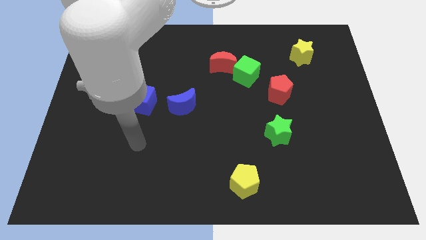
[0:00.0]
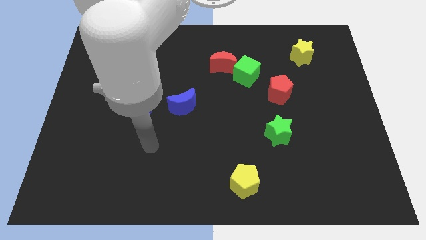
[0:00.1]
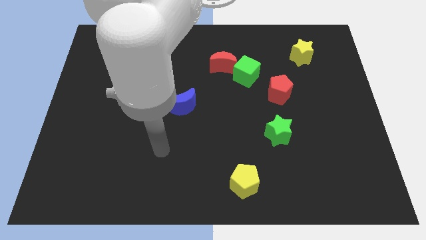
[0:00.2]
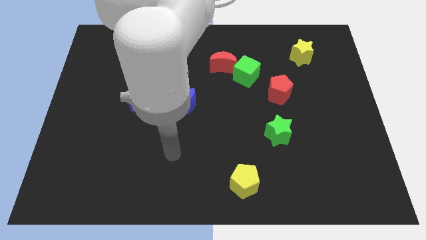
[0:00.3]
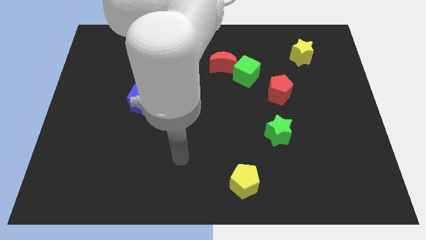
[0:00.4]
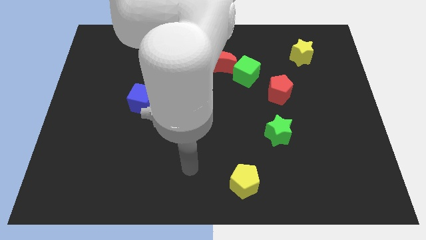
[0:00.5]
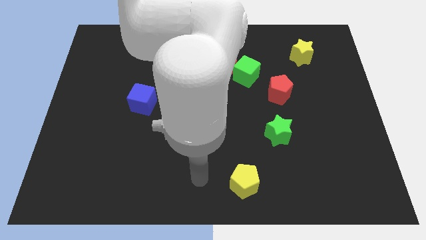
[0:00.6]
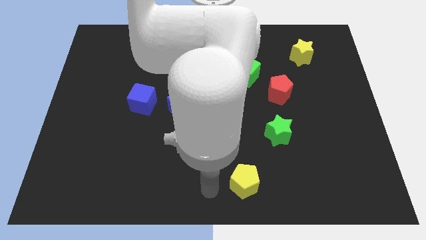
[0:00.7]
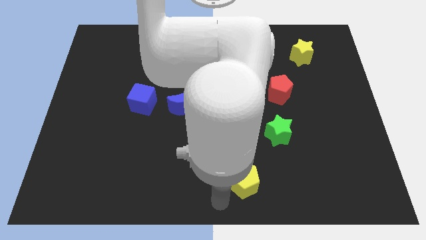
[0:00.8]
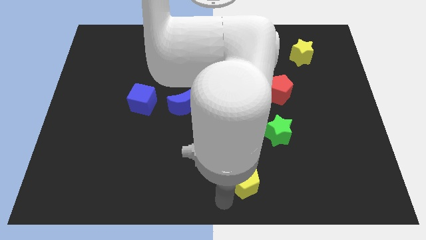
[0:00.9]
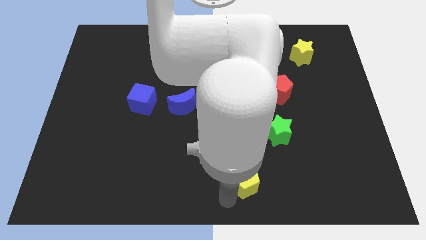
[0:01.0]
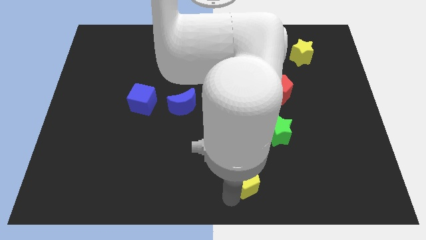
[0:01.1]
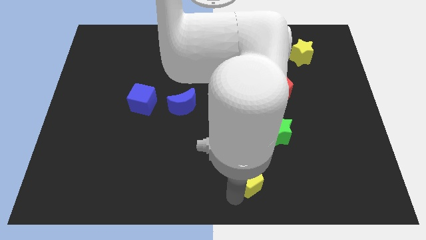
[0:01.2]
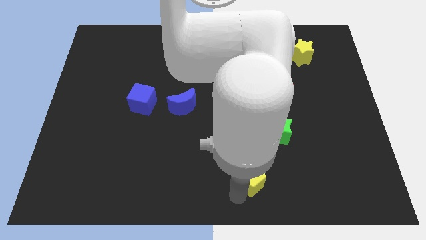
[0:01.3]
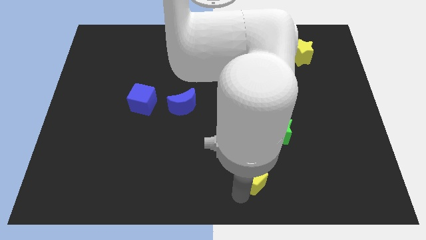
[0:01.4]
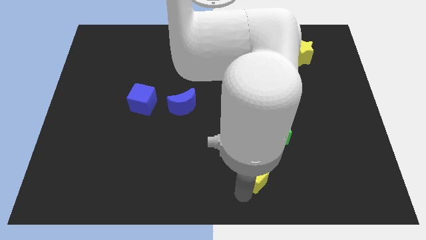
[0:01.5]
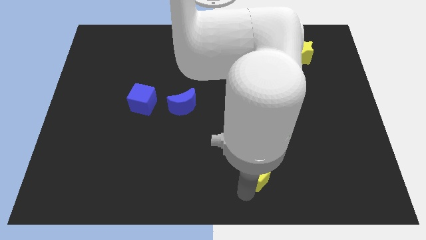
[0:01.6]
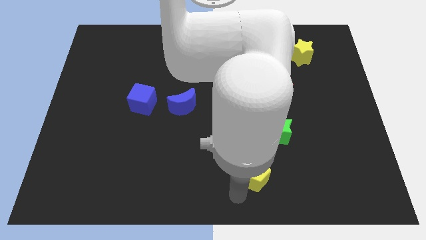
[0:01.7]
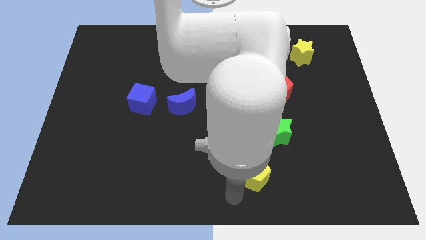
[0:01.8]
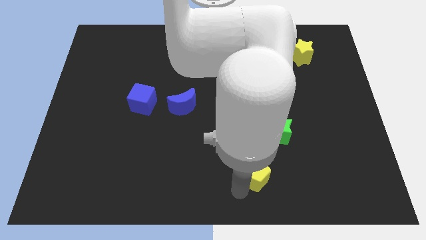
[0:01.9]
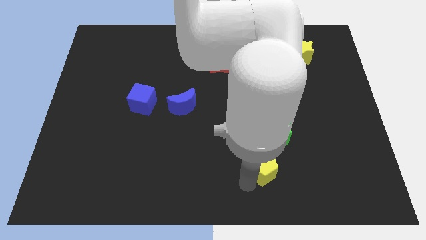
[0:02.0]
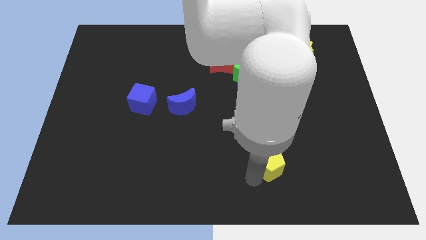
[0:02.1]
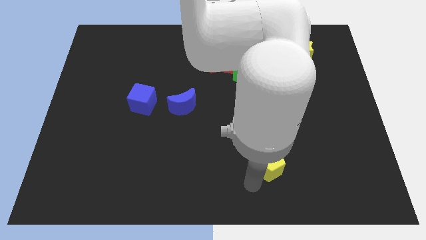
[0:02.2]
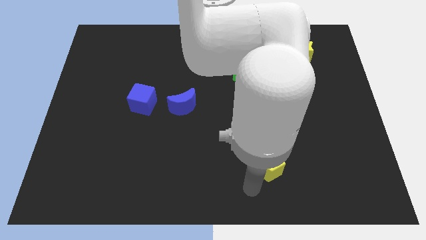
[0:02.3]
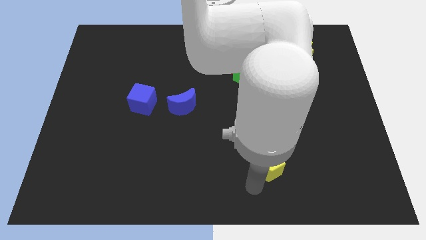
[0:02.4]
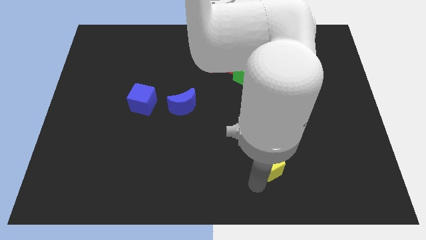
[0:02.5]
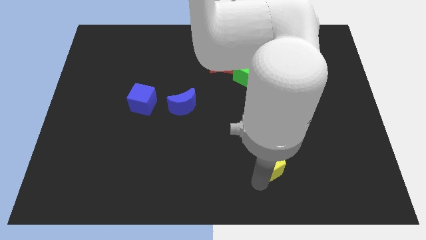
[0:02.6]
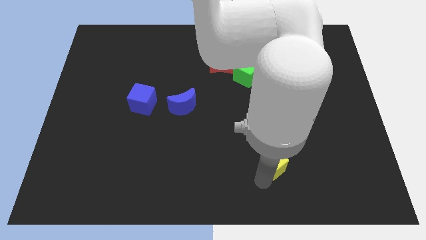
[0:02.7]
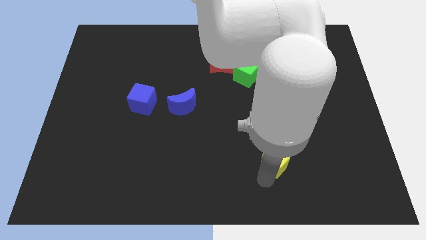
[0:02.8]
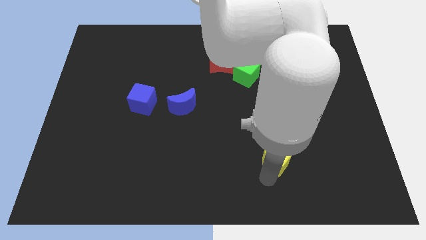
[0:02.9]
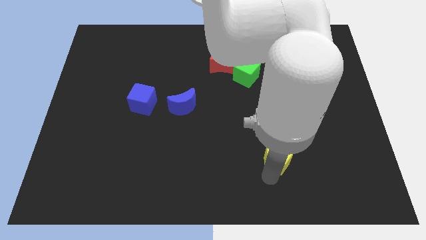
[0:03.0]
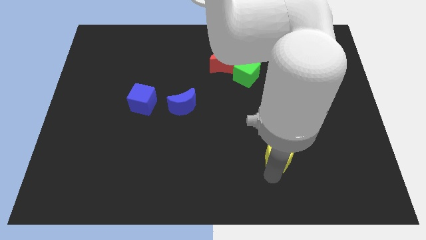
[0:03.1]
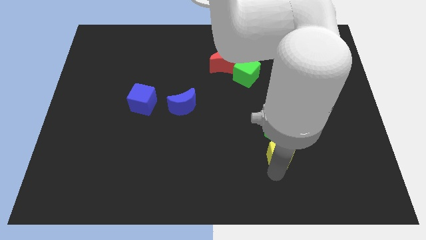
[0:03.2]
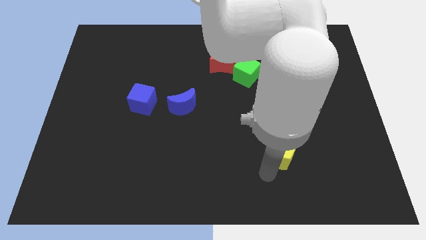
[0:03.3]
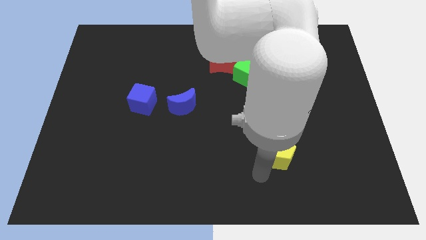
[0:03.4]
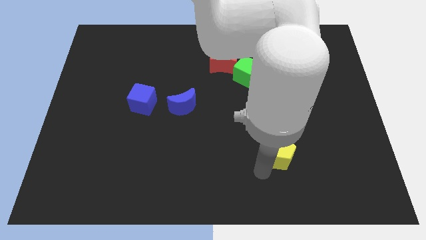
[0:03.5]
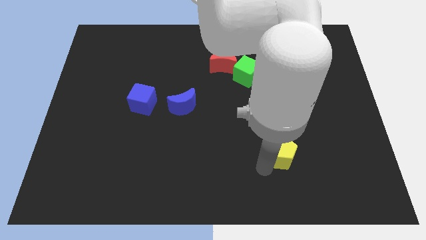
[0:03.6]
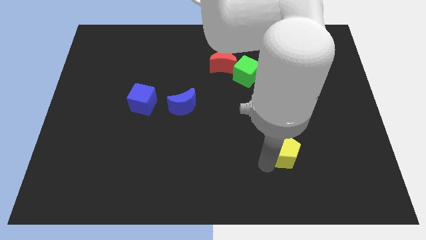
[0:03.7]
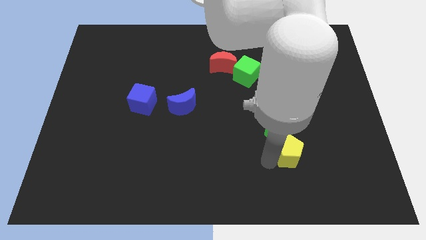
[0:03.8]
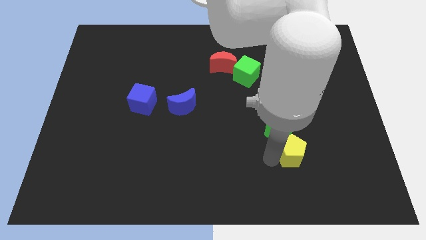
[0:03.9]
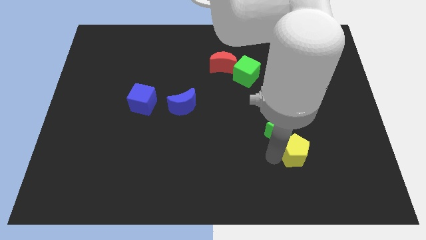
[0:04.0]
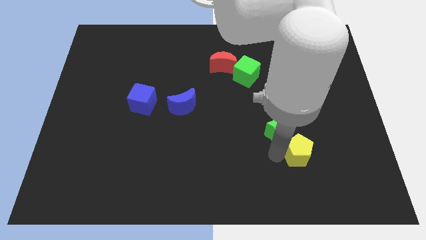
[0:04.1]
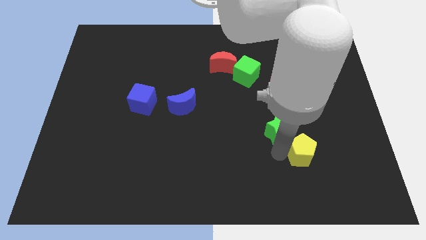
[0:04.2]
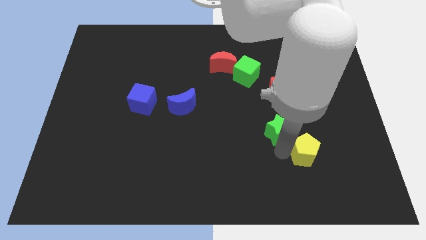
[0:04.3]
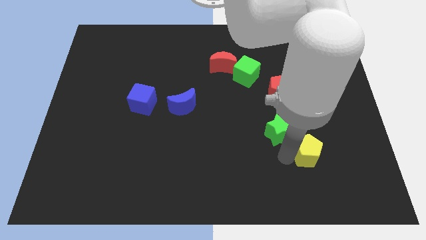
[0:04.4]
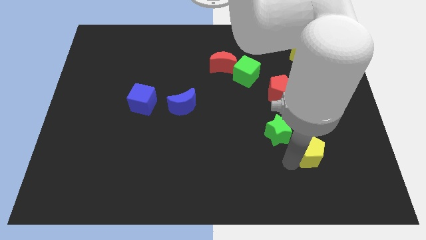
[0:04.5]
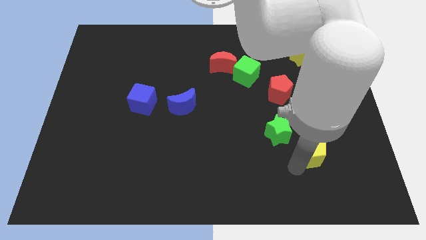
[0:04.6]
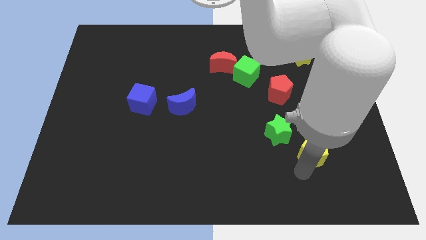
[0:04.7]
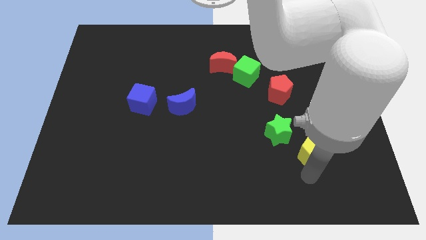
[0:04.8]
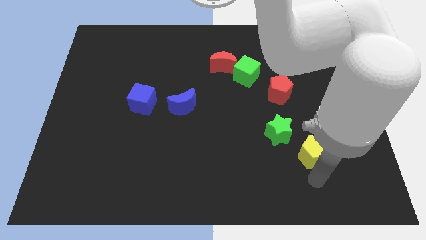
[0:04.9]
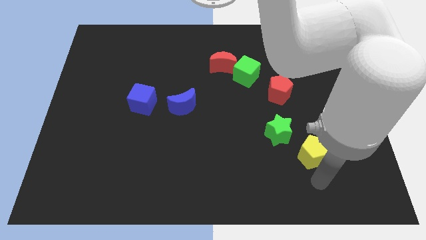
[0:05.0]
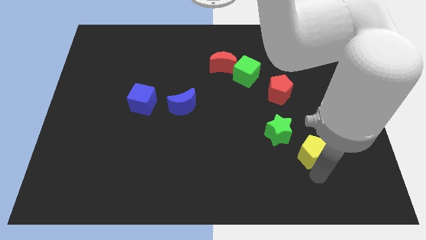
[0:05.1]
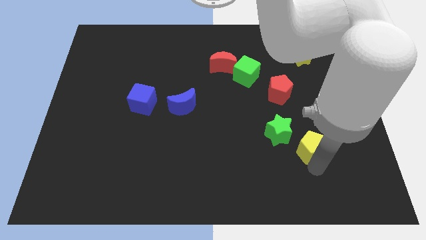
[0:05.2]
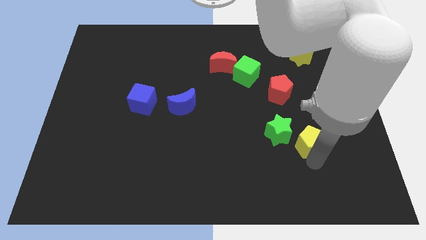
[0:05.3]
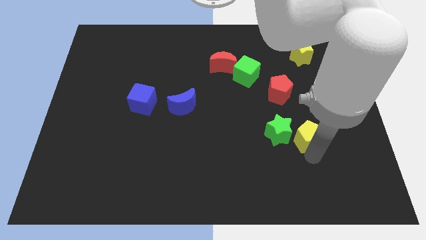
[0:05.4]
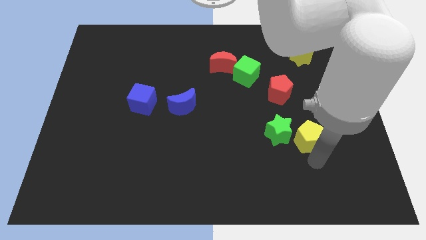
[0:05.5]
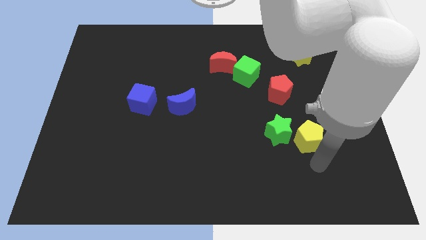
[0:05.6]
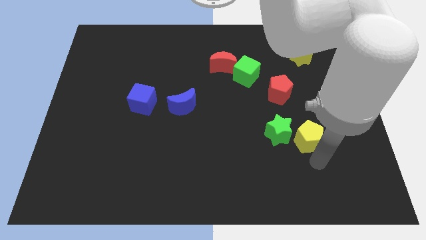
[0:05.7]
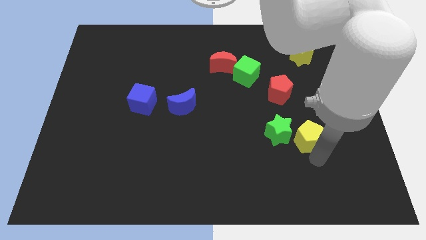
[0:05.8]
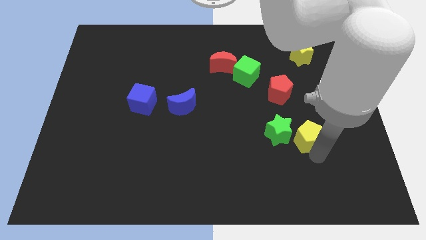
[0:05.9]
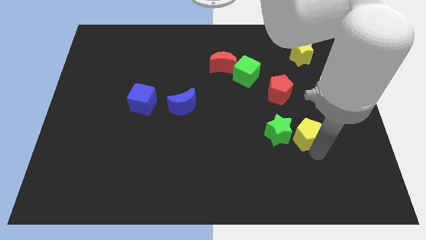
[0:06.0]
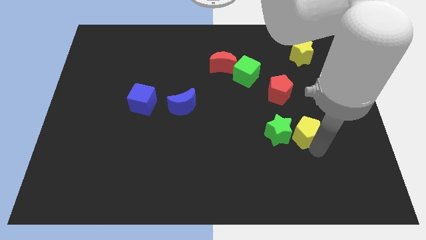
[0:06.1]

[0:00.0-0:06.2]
move the yellow pentagon diagonally up and to the right of the green star
